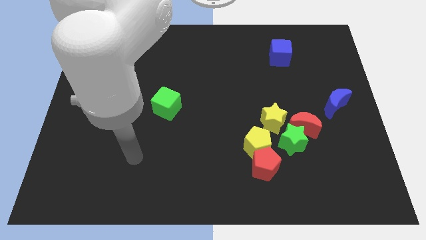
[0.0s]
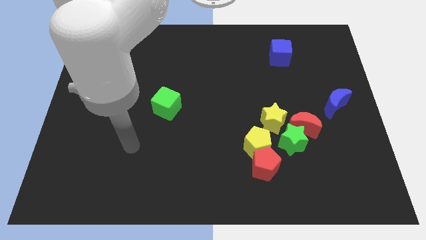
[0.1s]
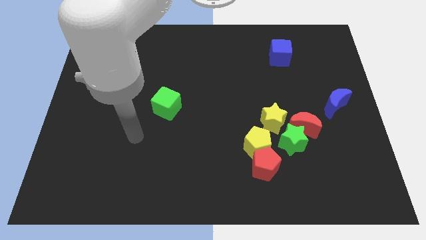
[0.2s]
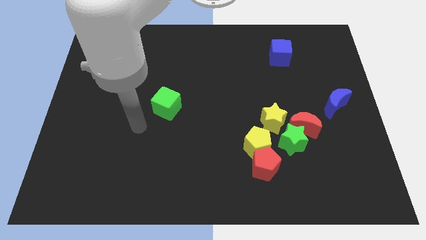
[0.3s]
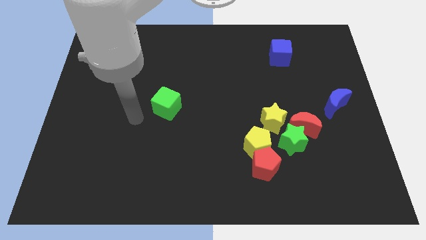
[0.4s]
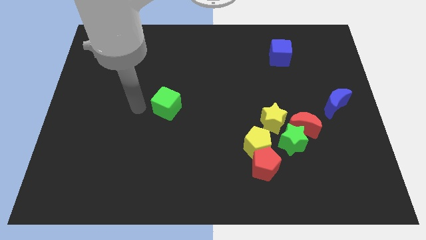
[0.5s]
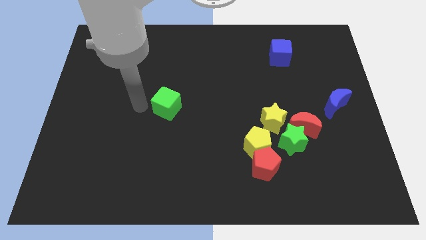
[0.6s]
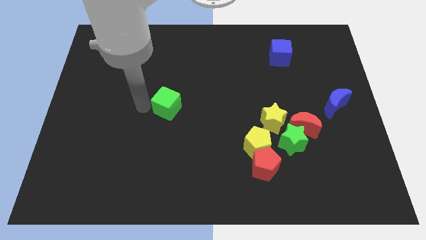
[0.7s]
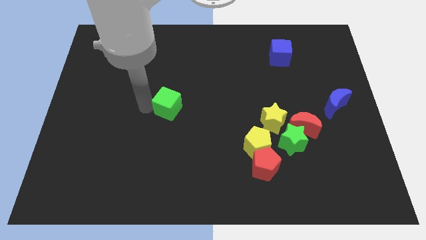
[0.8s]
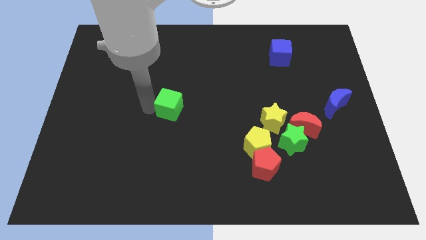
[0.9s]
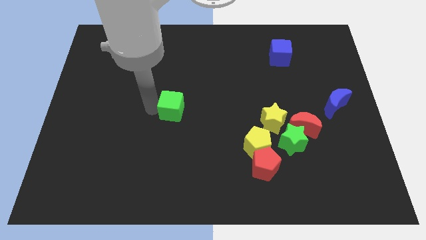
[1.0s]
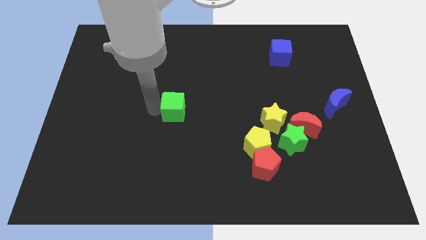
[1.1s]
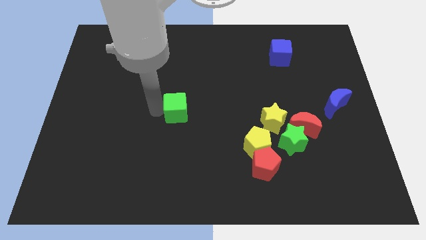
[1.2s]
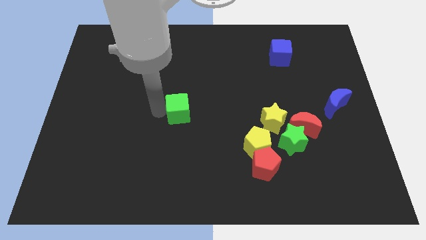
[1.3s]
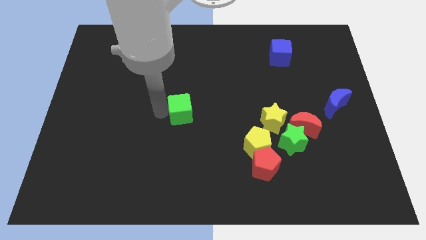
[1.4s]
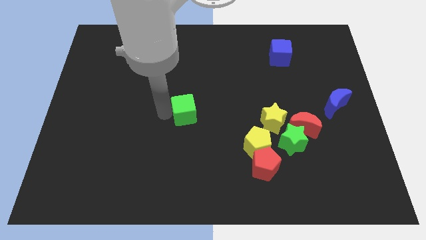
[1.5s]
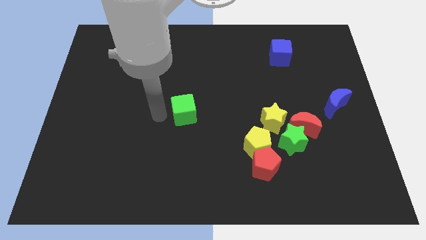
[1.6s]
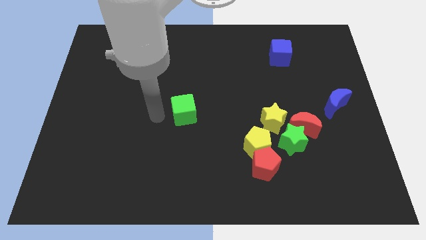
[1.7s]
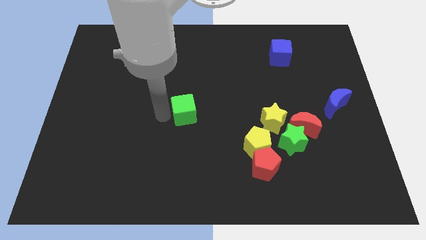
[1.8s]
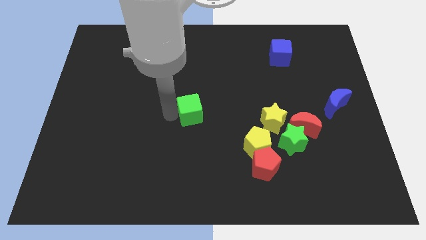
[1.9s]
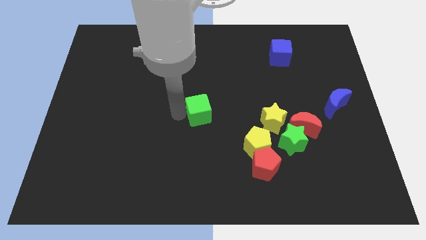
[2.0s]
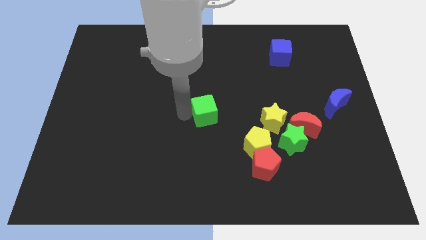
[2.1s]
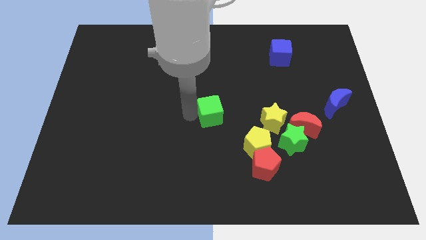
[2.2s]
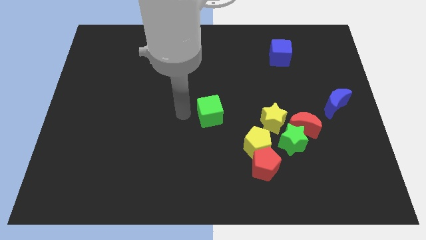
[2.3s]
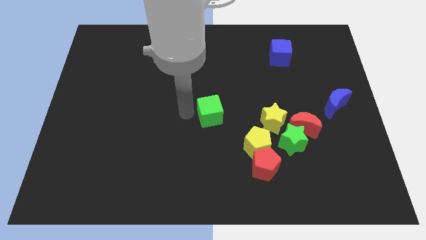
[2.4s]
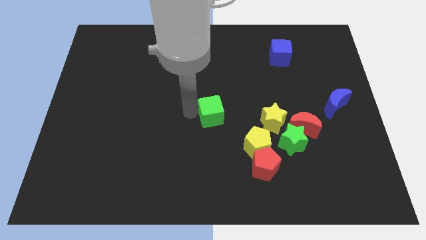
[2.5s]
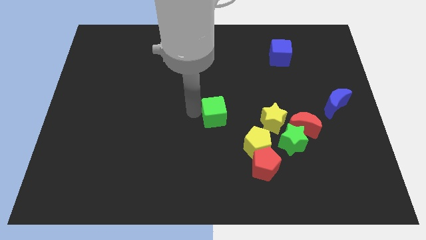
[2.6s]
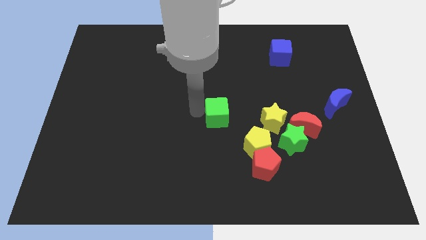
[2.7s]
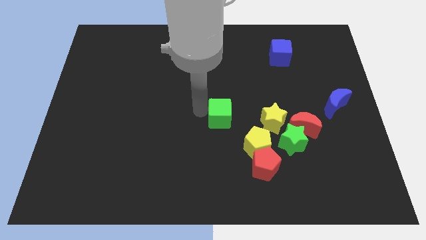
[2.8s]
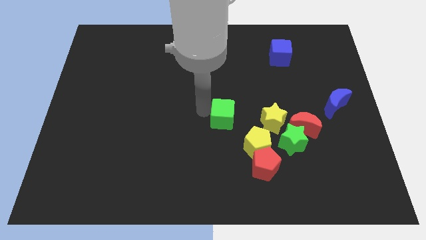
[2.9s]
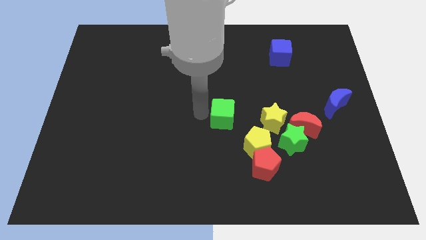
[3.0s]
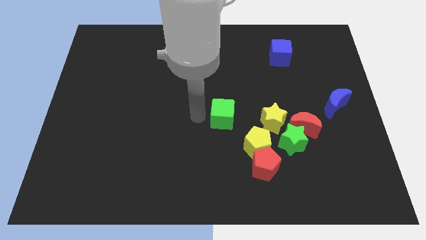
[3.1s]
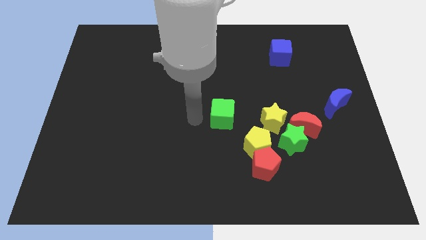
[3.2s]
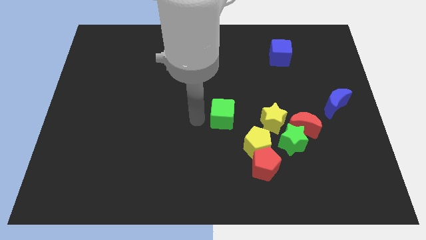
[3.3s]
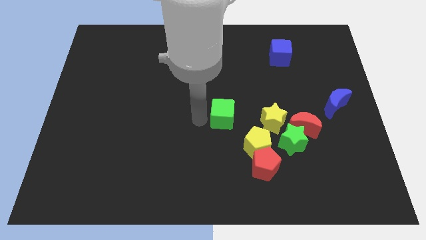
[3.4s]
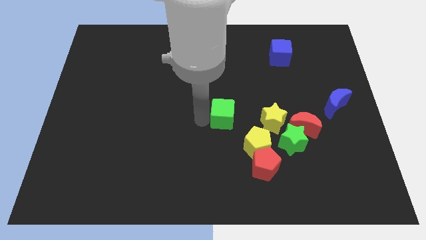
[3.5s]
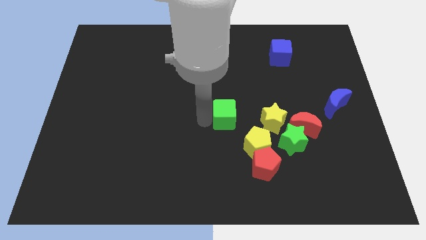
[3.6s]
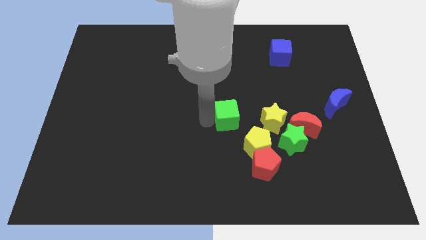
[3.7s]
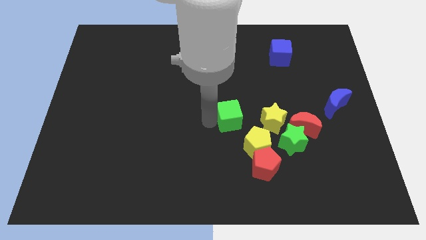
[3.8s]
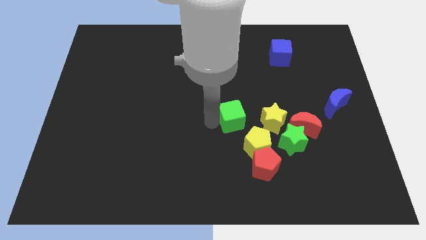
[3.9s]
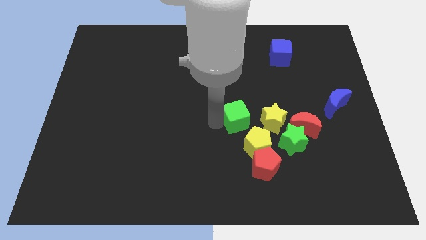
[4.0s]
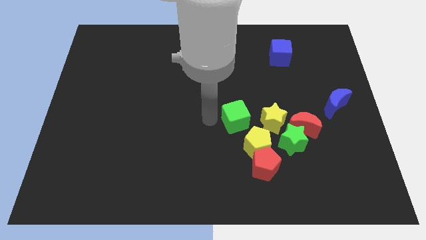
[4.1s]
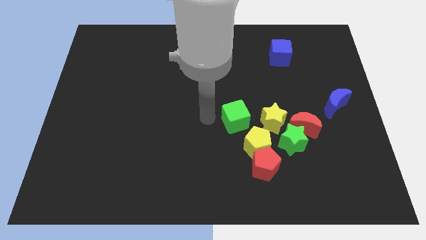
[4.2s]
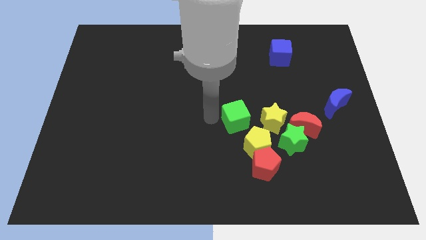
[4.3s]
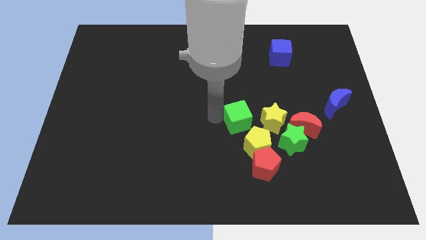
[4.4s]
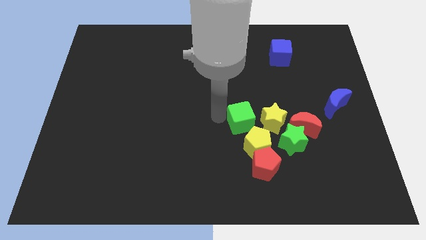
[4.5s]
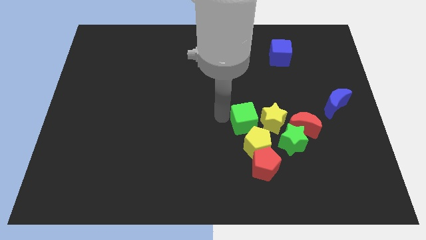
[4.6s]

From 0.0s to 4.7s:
push the green cube to the yellow star

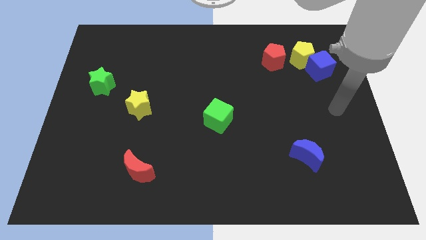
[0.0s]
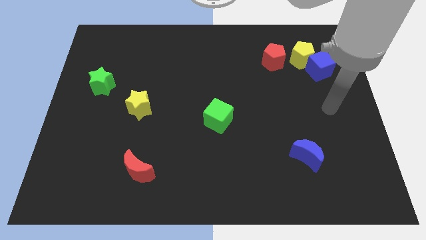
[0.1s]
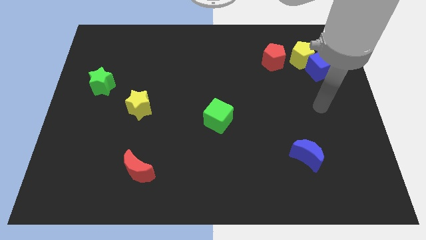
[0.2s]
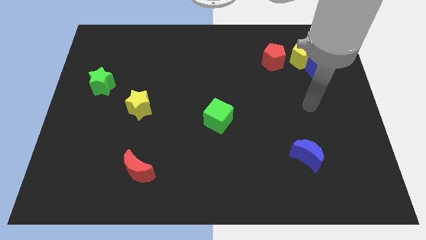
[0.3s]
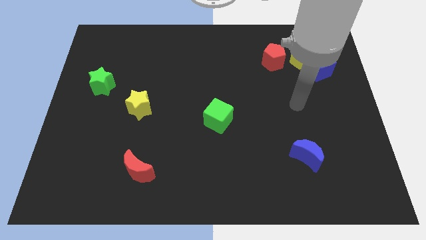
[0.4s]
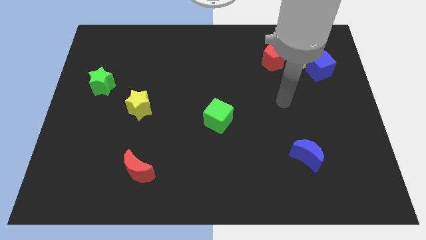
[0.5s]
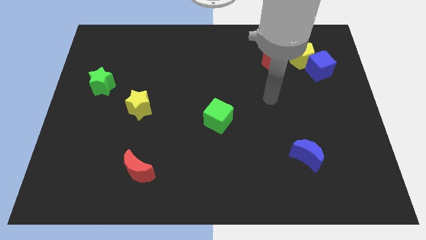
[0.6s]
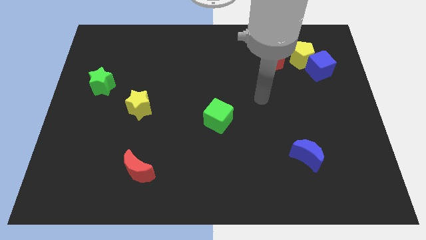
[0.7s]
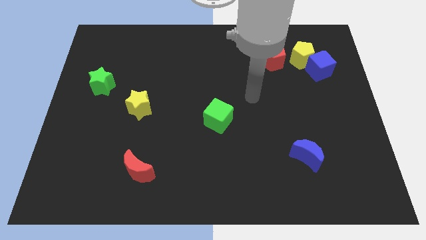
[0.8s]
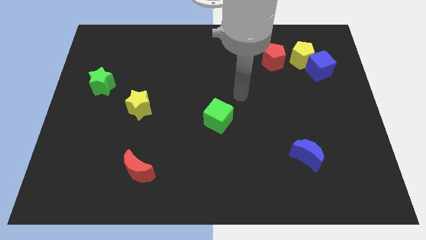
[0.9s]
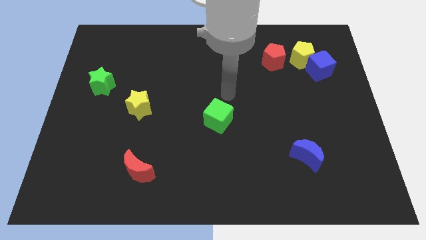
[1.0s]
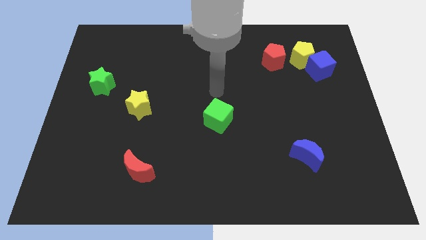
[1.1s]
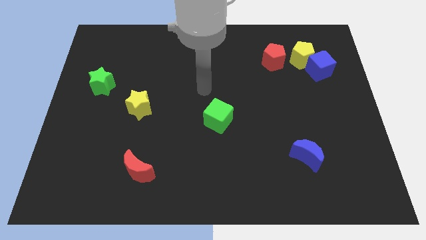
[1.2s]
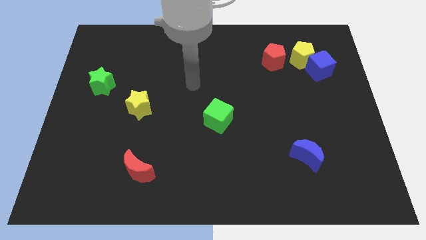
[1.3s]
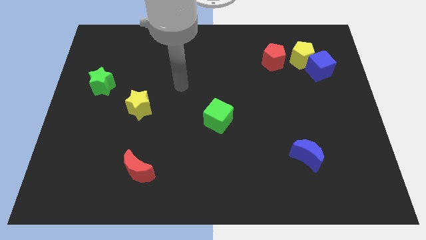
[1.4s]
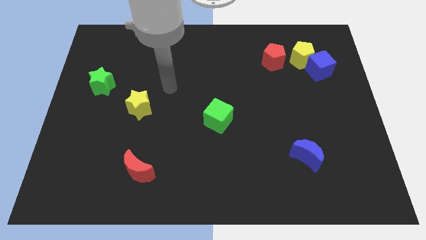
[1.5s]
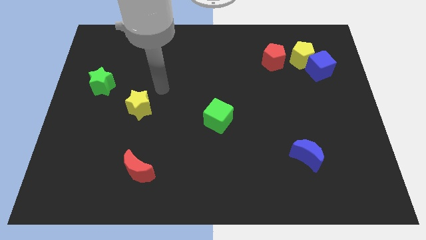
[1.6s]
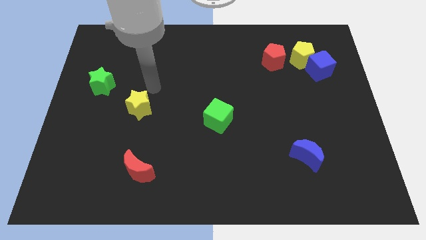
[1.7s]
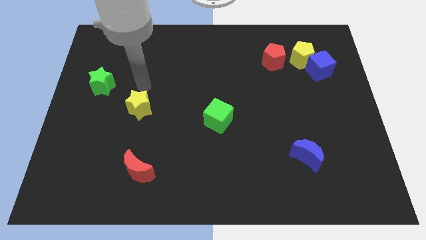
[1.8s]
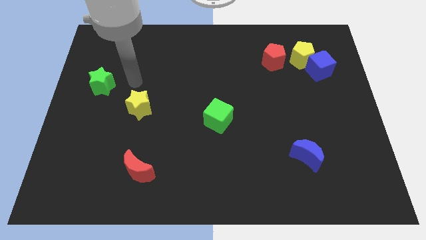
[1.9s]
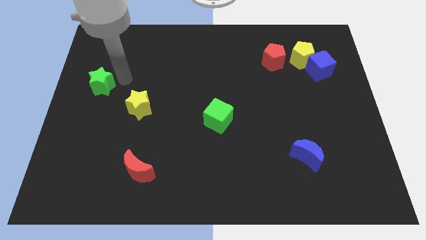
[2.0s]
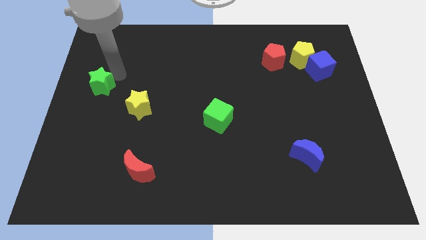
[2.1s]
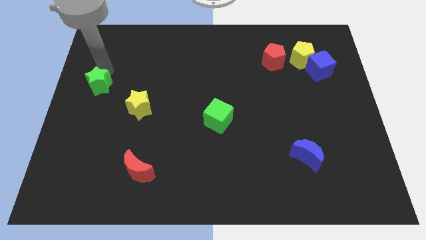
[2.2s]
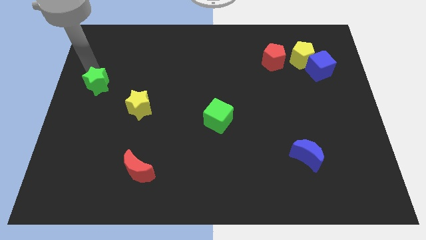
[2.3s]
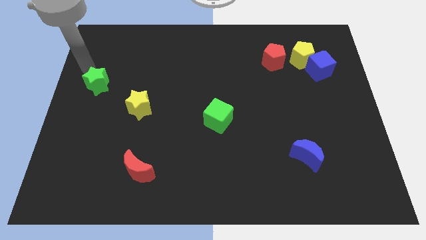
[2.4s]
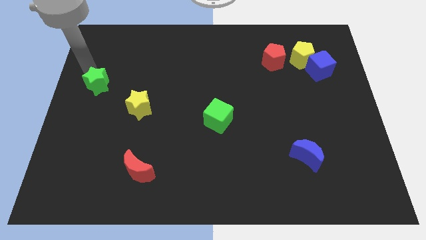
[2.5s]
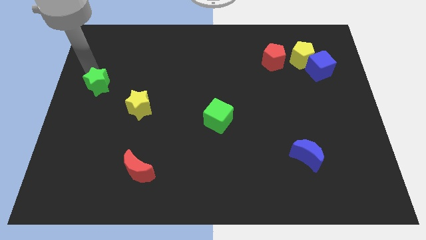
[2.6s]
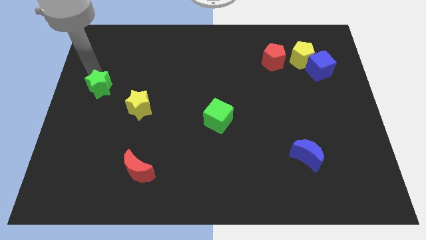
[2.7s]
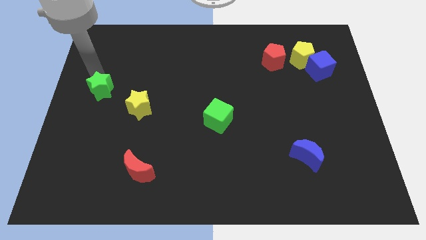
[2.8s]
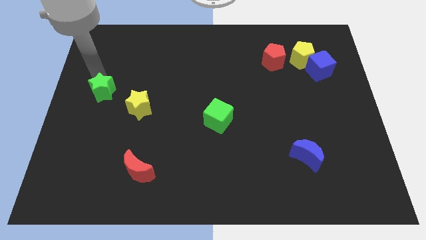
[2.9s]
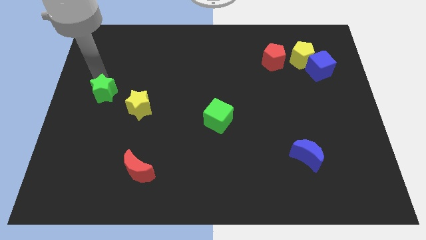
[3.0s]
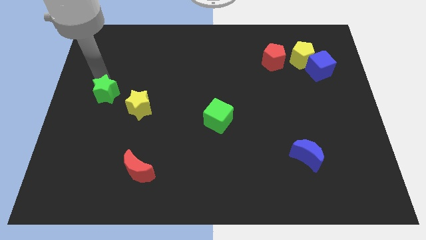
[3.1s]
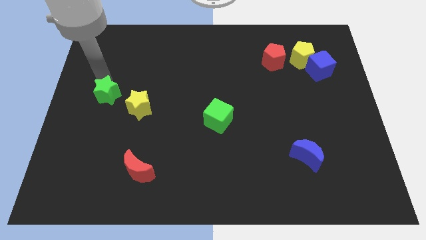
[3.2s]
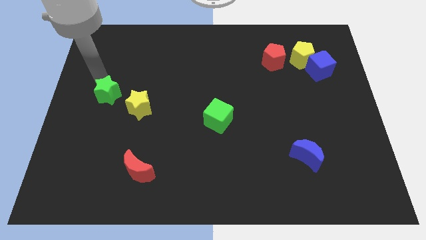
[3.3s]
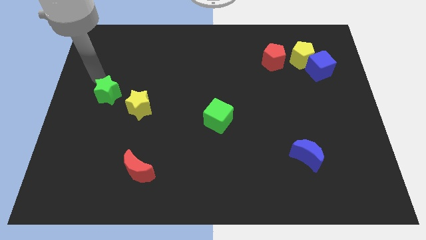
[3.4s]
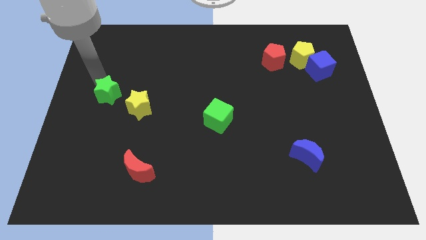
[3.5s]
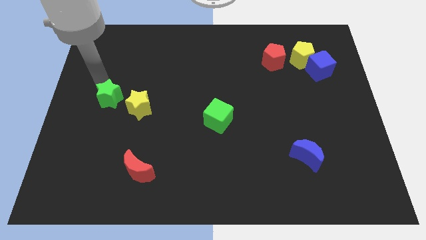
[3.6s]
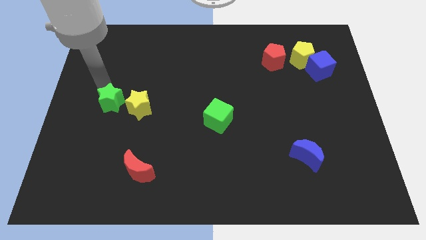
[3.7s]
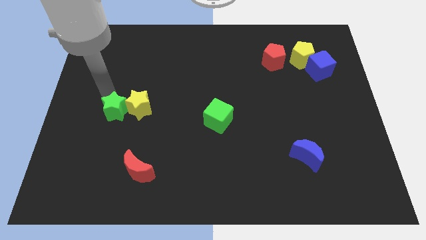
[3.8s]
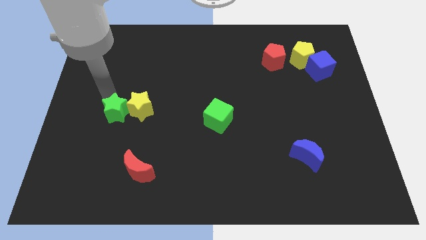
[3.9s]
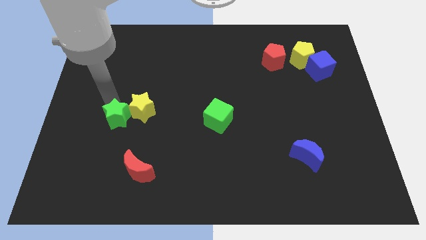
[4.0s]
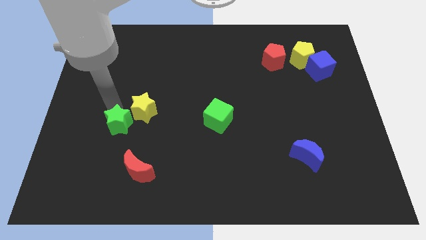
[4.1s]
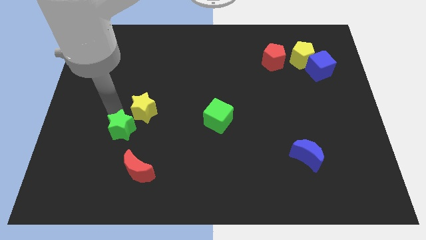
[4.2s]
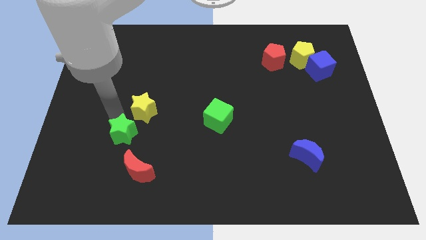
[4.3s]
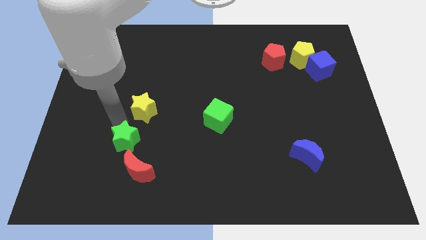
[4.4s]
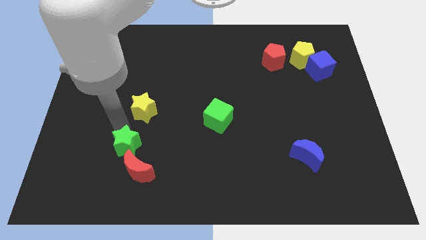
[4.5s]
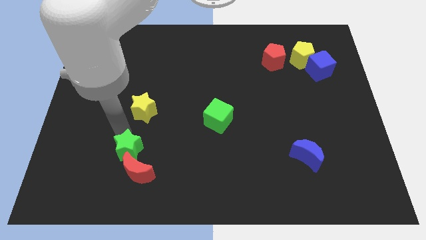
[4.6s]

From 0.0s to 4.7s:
move the green star towards the red moon
